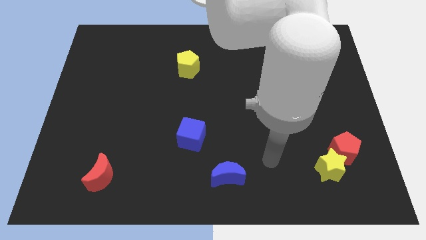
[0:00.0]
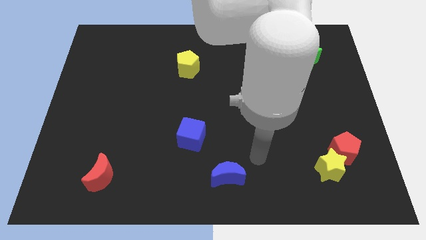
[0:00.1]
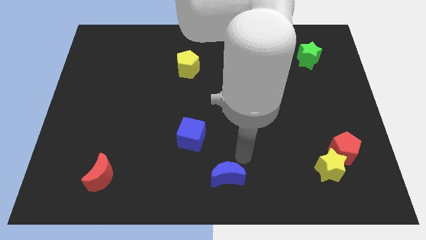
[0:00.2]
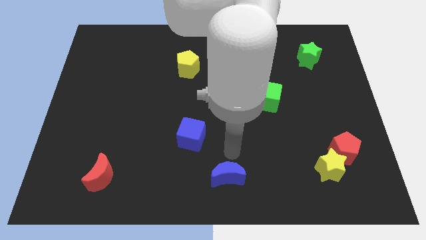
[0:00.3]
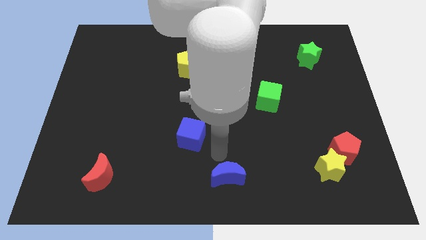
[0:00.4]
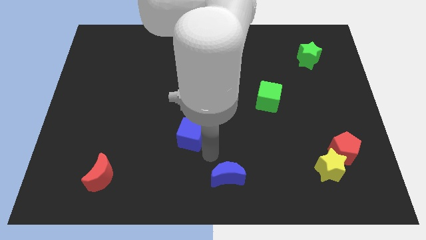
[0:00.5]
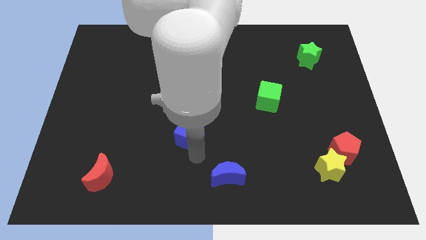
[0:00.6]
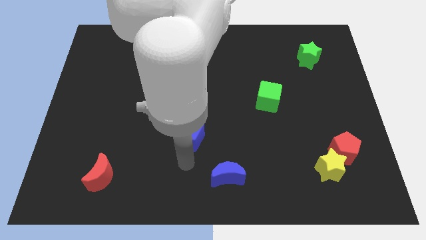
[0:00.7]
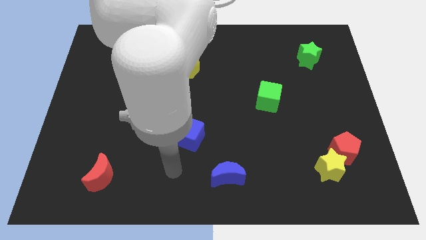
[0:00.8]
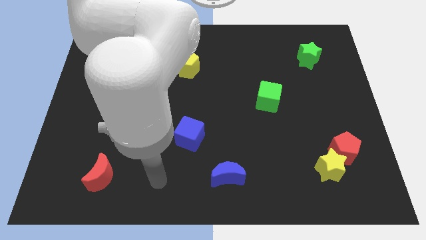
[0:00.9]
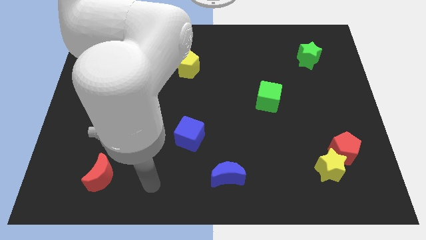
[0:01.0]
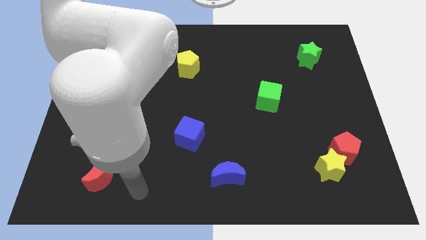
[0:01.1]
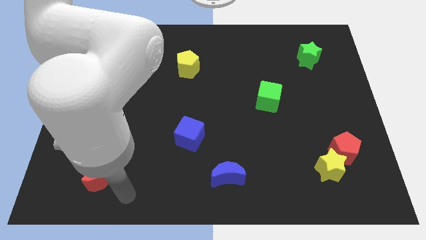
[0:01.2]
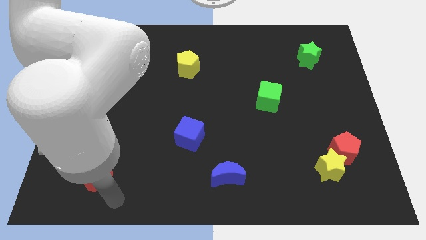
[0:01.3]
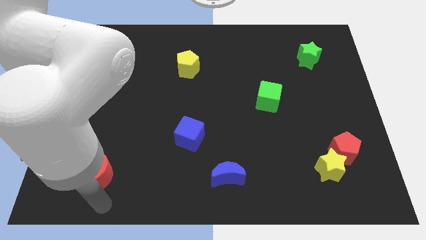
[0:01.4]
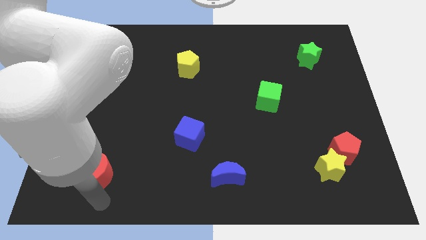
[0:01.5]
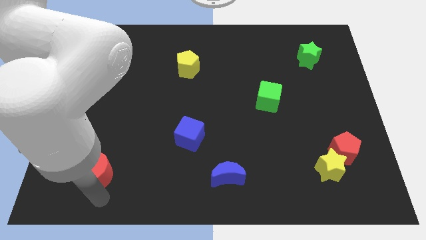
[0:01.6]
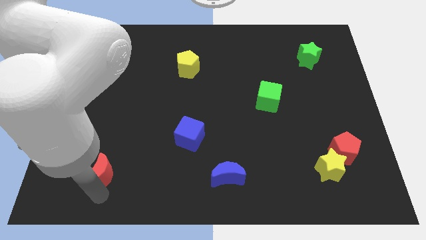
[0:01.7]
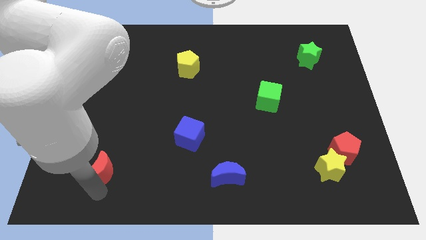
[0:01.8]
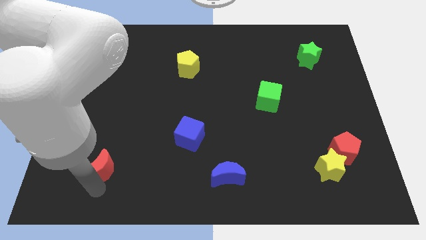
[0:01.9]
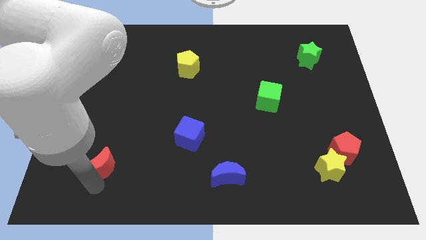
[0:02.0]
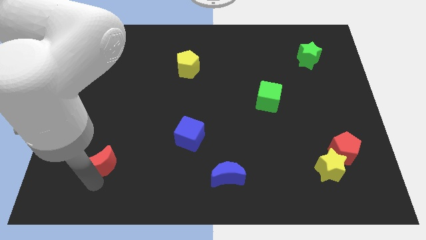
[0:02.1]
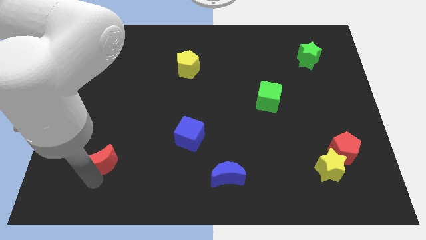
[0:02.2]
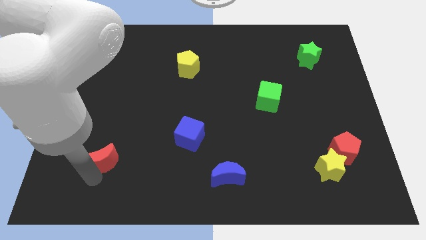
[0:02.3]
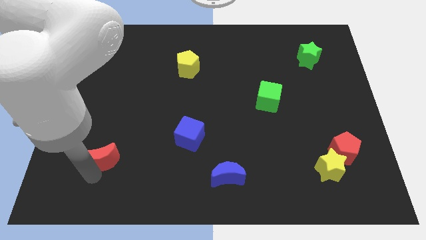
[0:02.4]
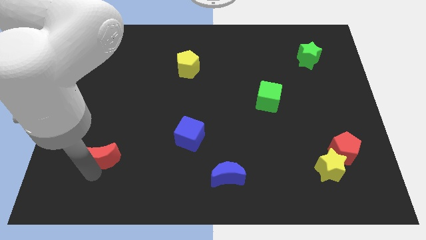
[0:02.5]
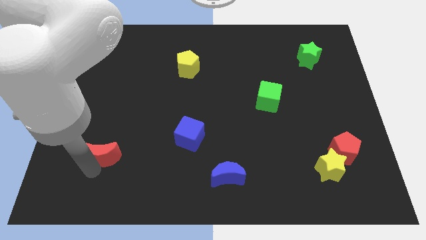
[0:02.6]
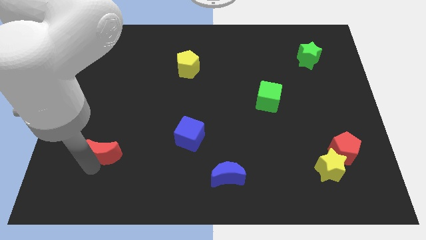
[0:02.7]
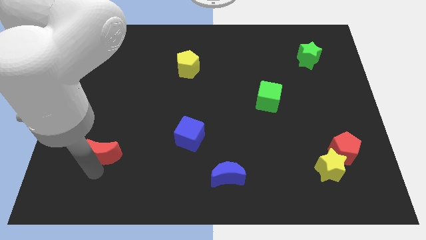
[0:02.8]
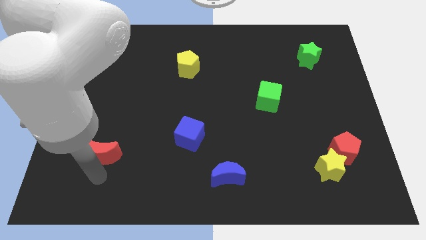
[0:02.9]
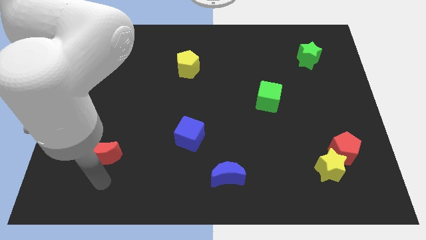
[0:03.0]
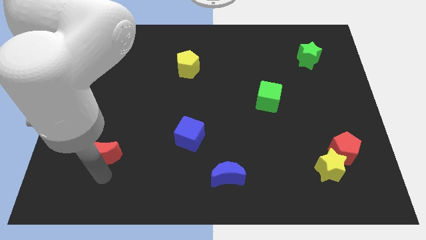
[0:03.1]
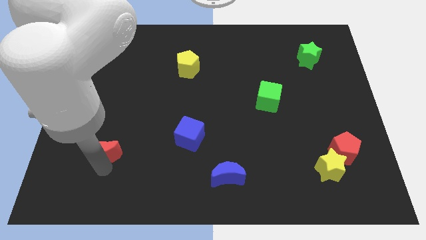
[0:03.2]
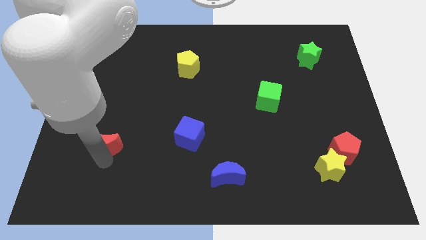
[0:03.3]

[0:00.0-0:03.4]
slightly move the red moon upwards

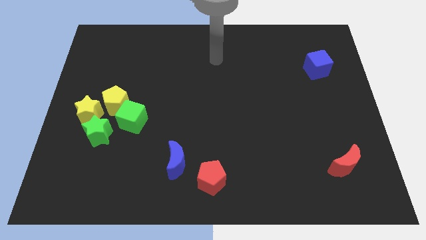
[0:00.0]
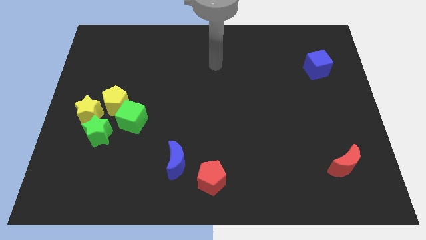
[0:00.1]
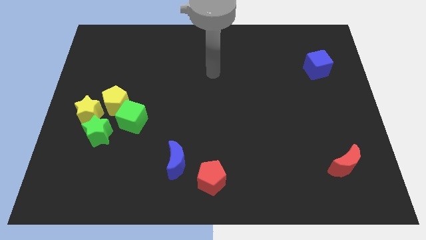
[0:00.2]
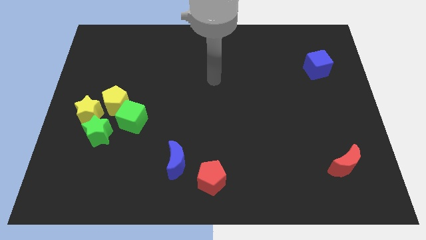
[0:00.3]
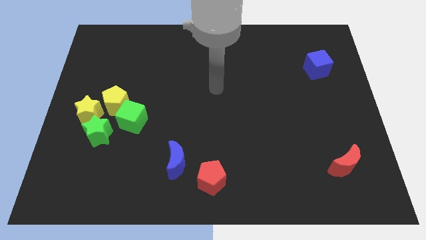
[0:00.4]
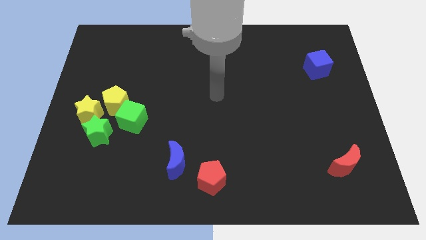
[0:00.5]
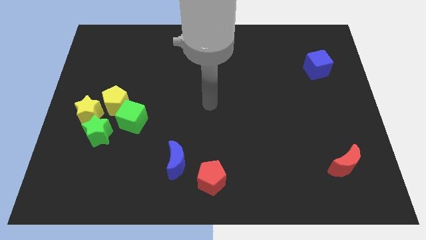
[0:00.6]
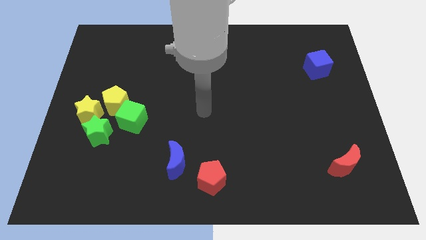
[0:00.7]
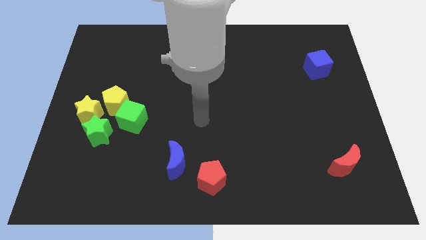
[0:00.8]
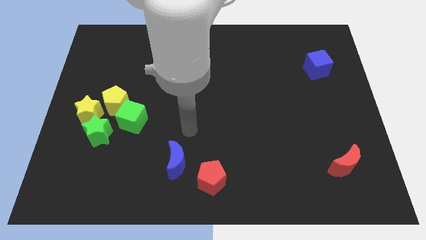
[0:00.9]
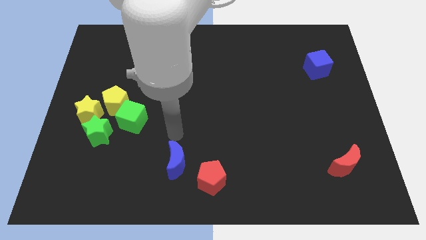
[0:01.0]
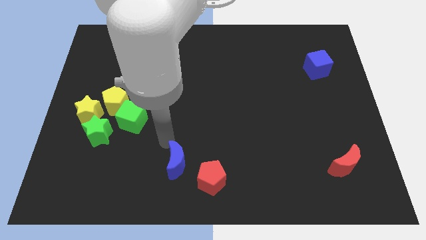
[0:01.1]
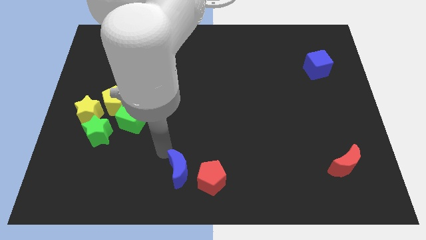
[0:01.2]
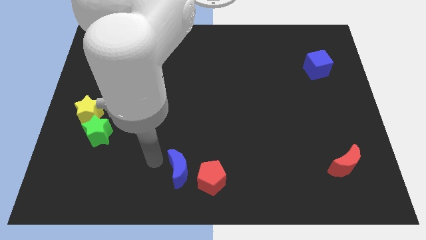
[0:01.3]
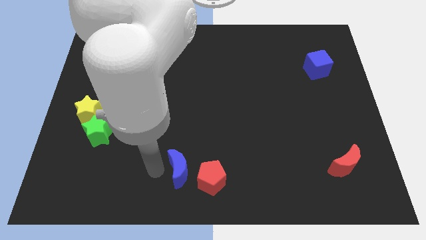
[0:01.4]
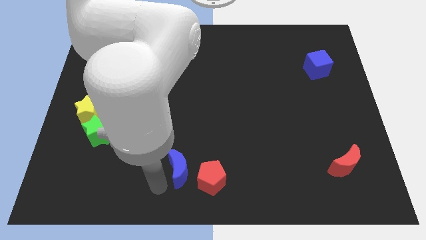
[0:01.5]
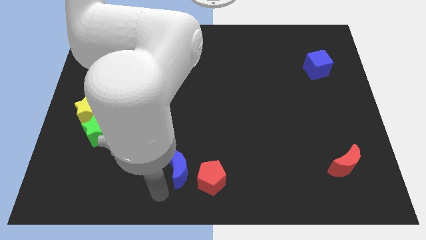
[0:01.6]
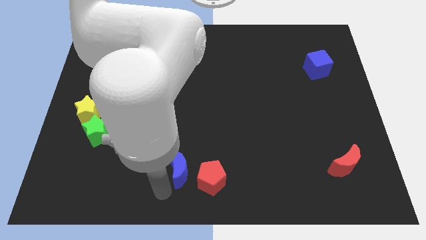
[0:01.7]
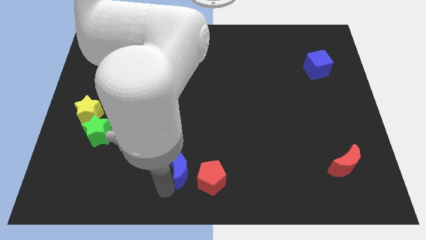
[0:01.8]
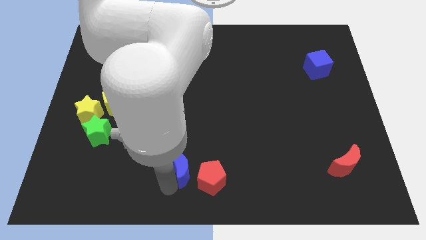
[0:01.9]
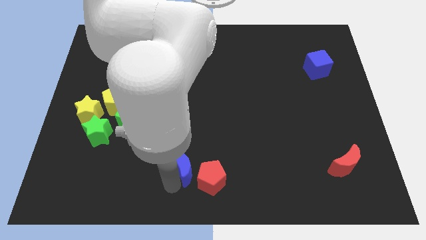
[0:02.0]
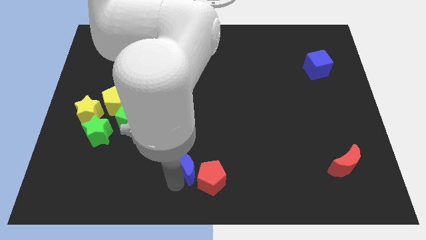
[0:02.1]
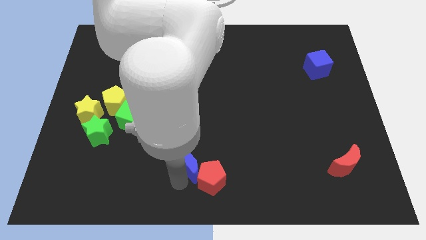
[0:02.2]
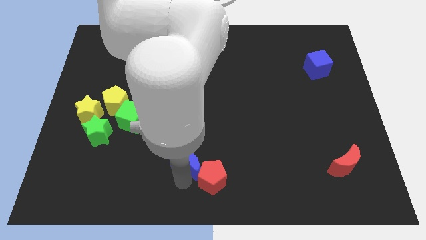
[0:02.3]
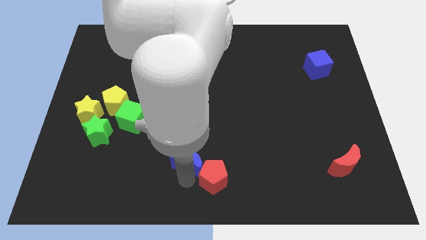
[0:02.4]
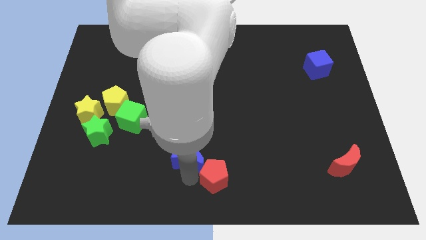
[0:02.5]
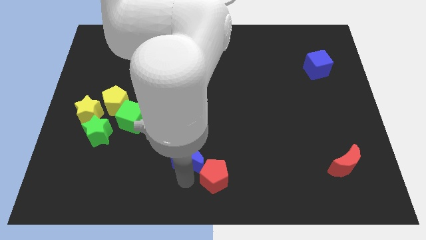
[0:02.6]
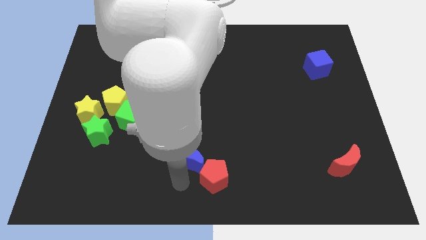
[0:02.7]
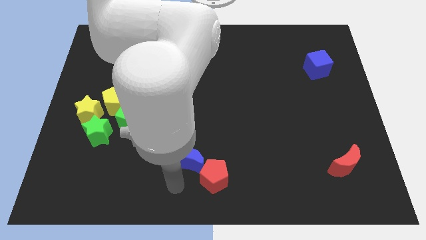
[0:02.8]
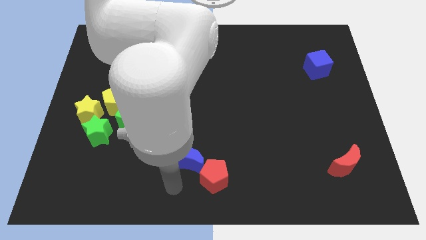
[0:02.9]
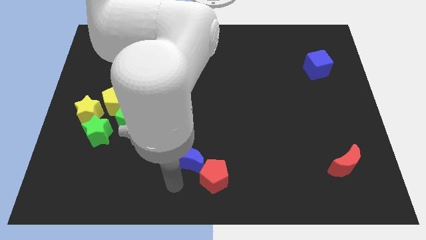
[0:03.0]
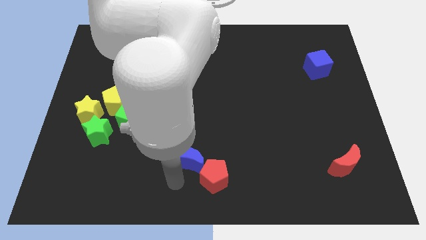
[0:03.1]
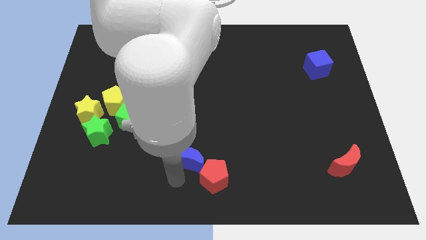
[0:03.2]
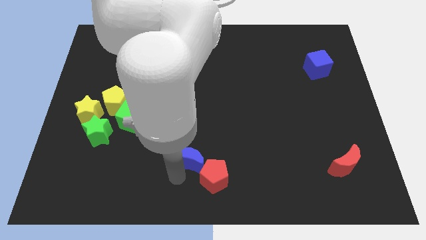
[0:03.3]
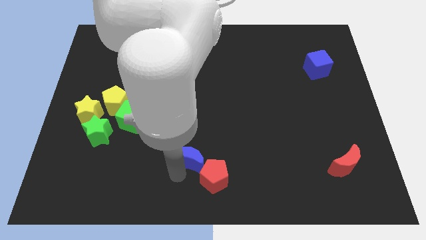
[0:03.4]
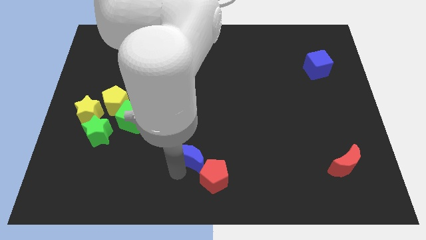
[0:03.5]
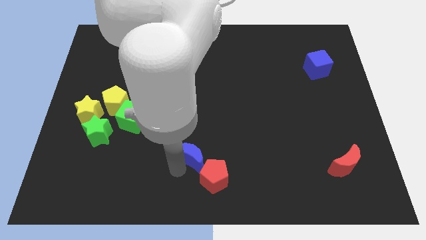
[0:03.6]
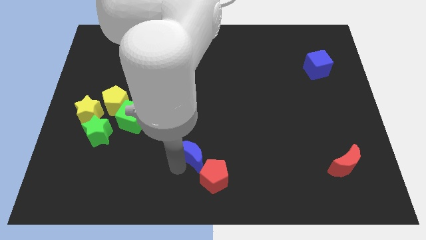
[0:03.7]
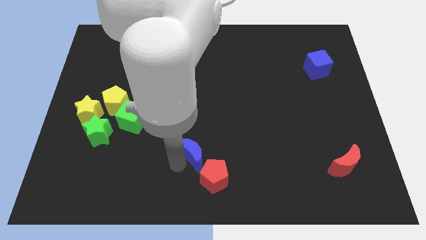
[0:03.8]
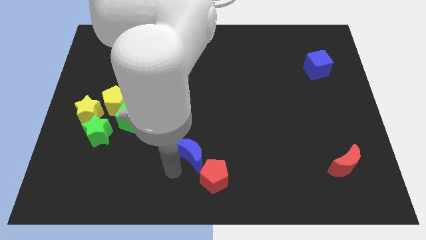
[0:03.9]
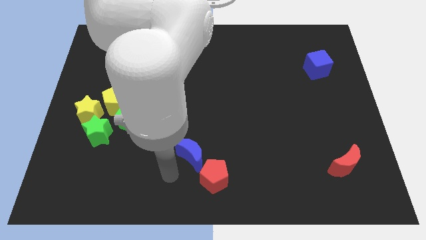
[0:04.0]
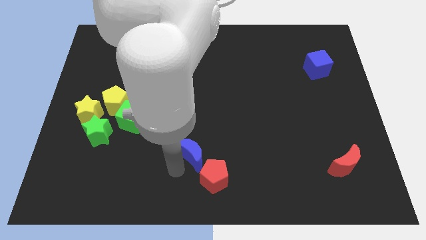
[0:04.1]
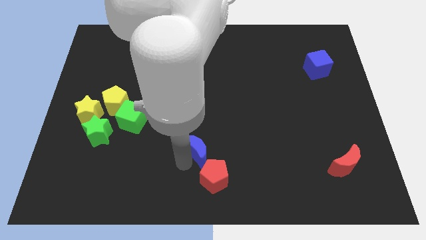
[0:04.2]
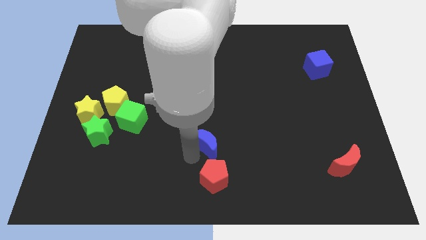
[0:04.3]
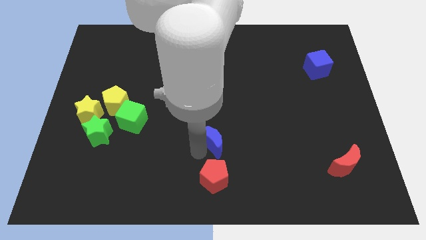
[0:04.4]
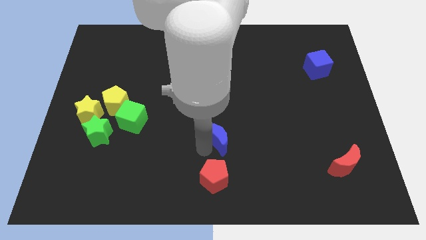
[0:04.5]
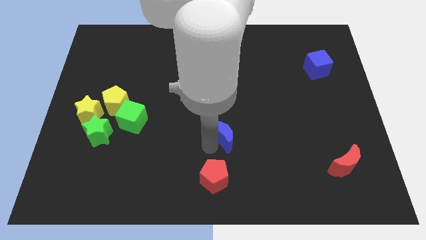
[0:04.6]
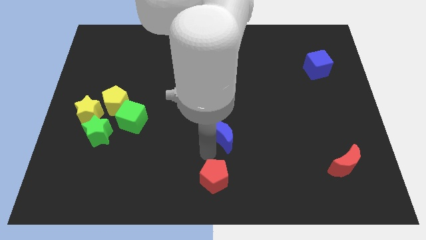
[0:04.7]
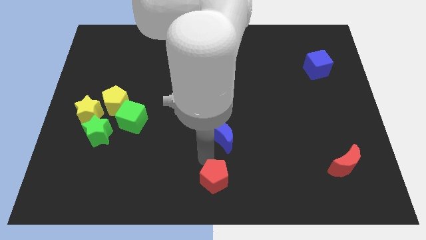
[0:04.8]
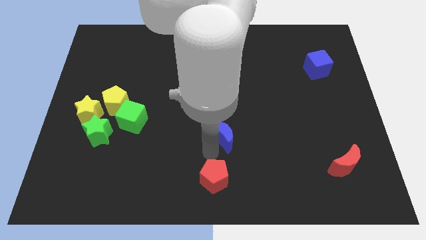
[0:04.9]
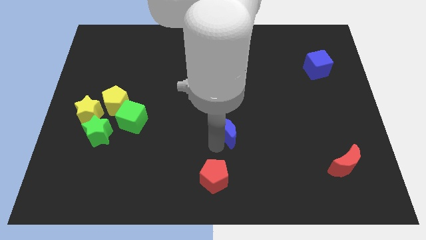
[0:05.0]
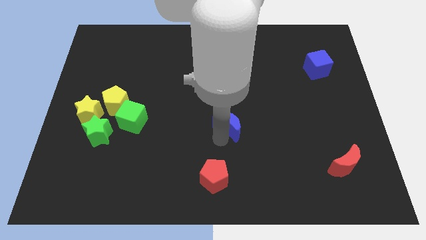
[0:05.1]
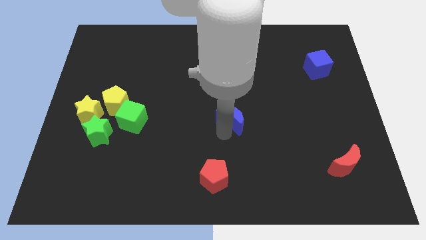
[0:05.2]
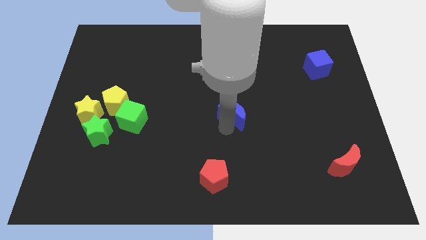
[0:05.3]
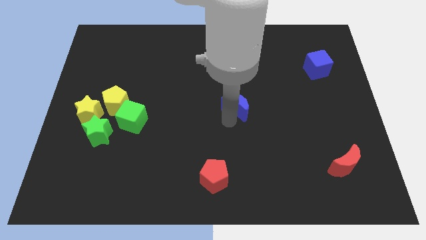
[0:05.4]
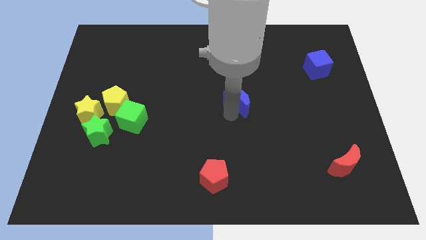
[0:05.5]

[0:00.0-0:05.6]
move the blue moon upwards and to the right diagonally
